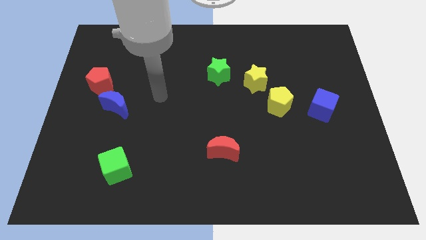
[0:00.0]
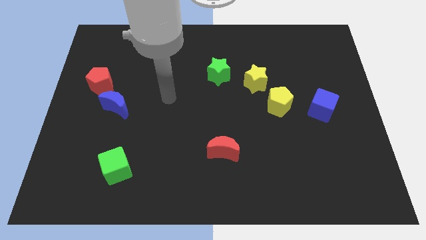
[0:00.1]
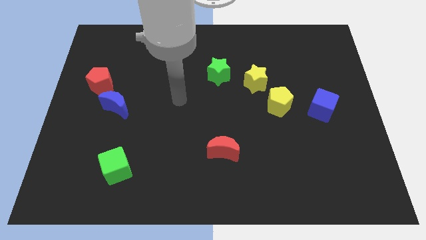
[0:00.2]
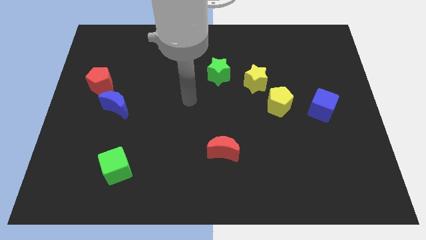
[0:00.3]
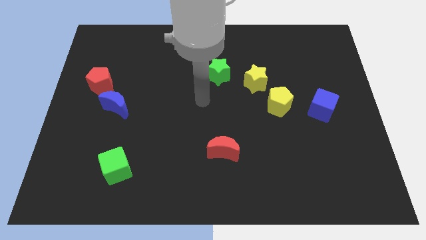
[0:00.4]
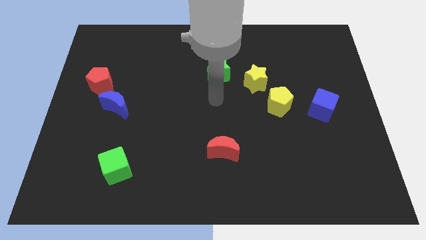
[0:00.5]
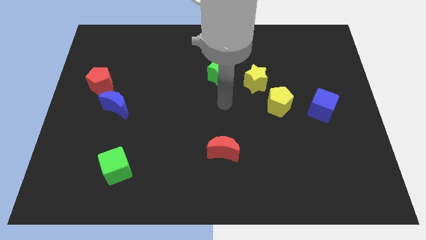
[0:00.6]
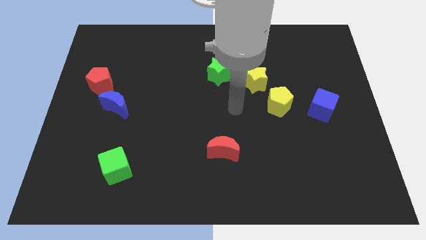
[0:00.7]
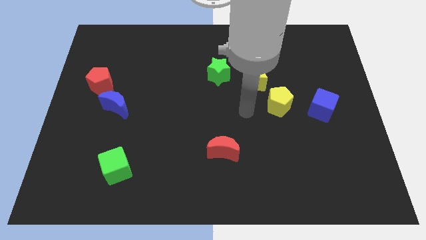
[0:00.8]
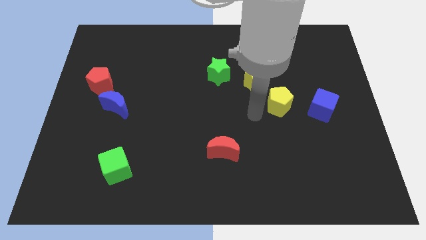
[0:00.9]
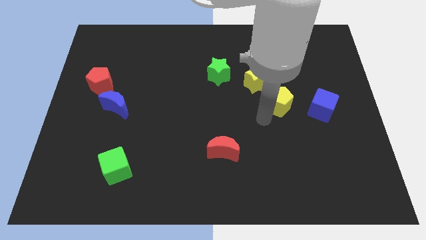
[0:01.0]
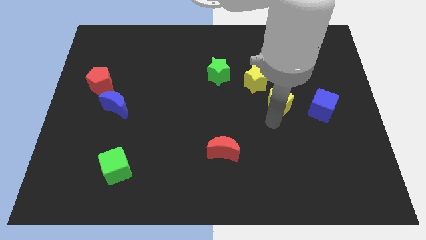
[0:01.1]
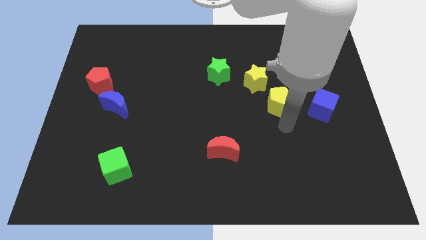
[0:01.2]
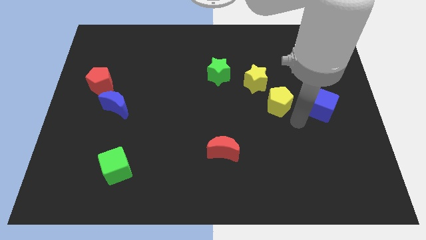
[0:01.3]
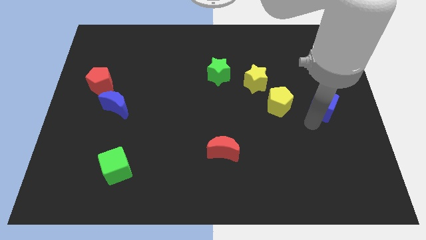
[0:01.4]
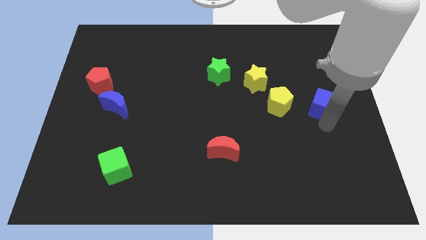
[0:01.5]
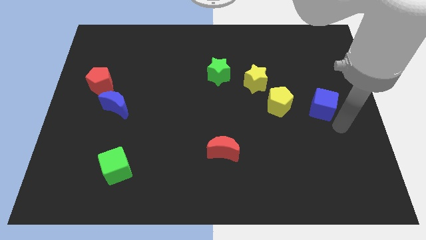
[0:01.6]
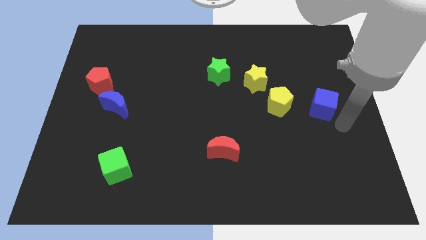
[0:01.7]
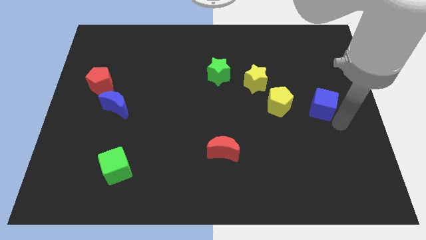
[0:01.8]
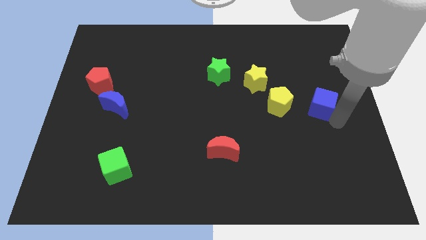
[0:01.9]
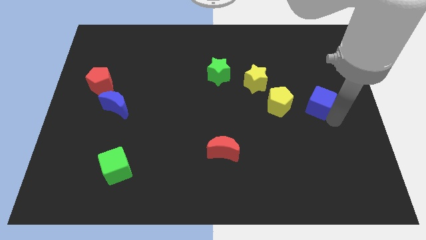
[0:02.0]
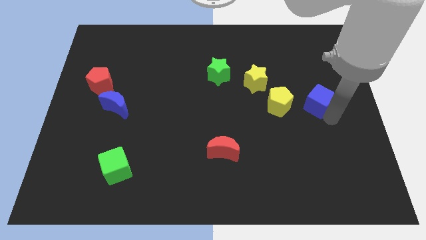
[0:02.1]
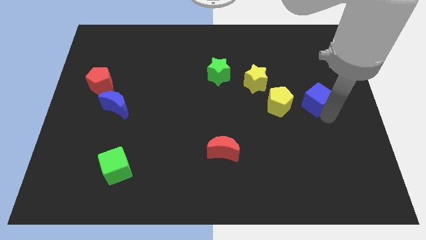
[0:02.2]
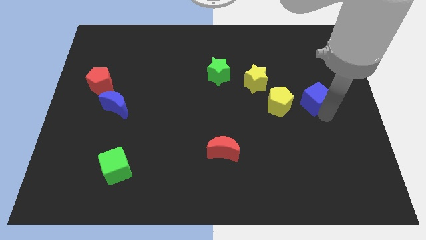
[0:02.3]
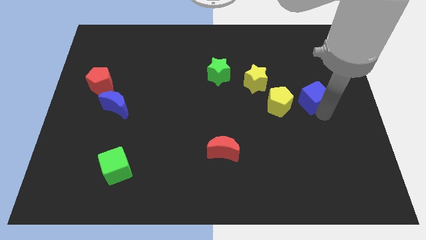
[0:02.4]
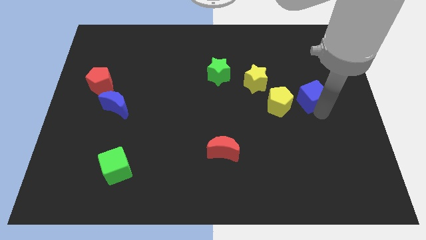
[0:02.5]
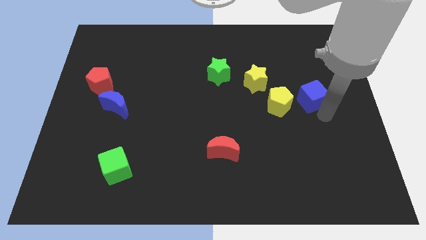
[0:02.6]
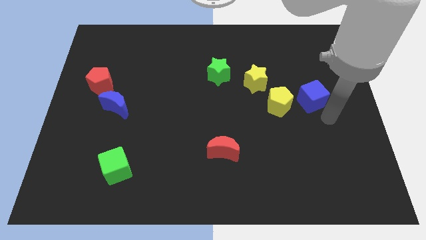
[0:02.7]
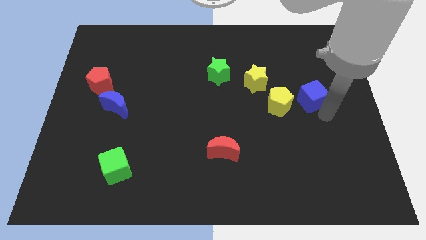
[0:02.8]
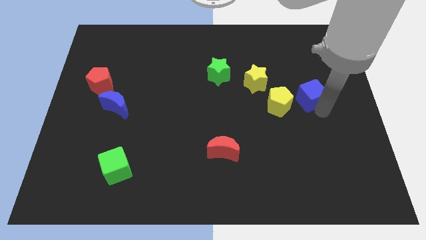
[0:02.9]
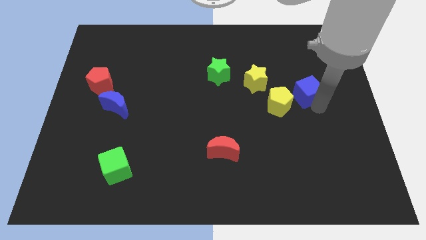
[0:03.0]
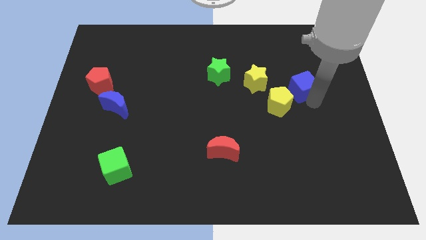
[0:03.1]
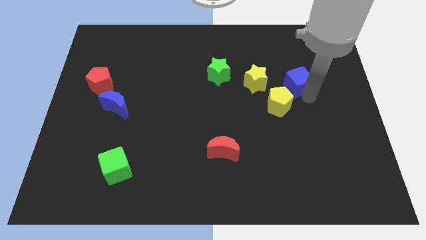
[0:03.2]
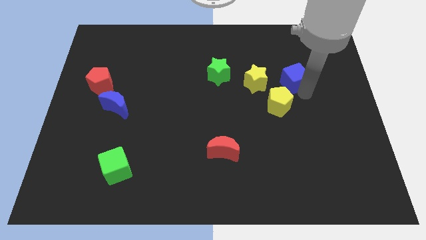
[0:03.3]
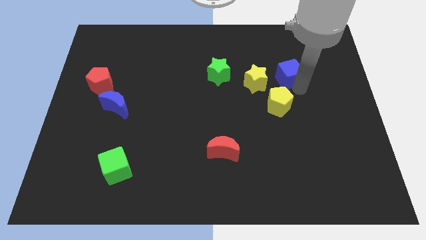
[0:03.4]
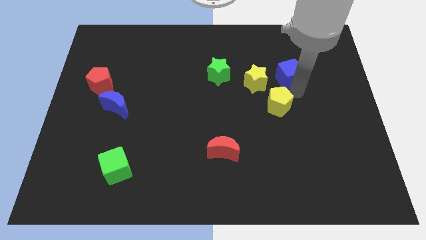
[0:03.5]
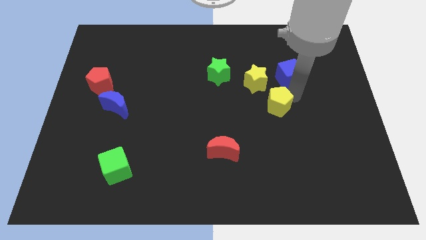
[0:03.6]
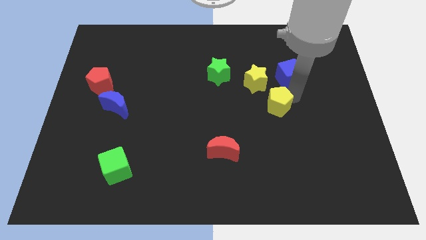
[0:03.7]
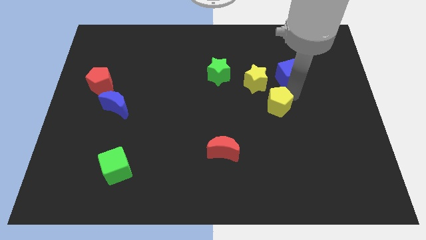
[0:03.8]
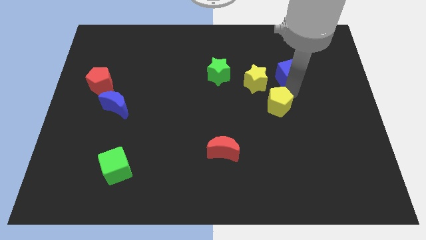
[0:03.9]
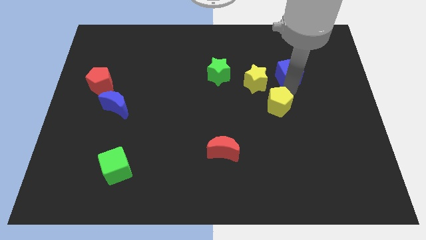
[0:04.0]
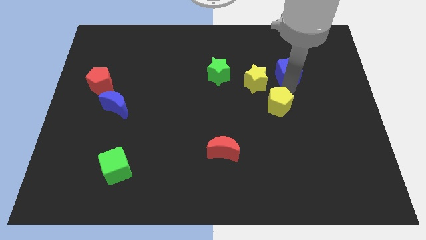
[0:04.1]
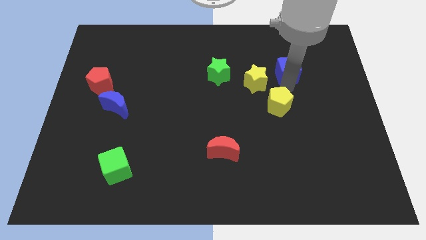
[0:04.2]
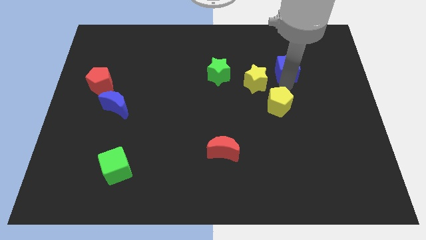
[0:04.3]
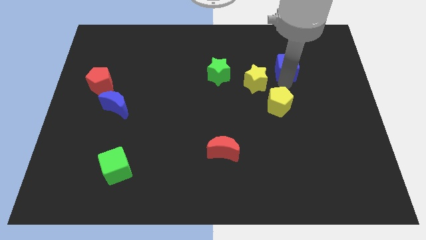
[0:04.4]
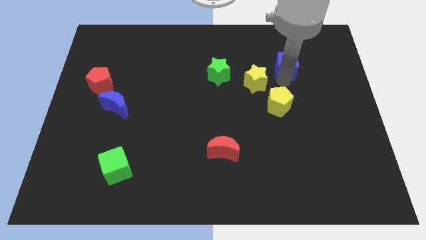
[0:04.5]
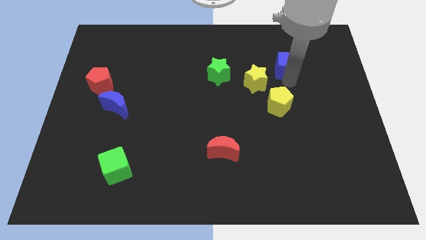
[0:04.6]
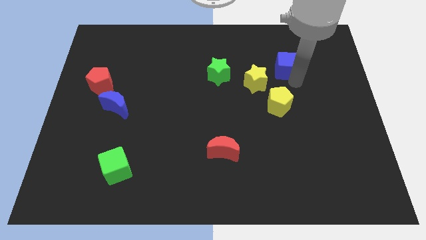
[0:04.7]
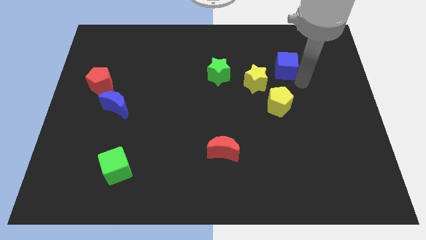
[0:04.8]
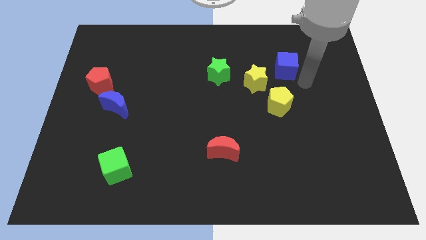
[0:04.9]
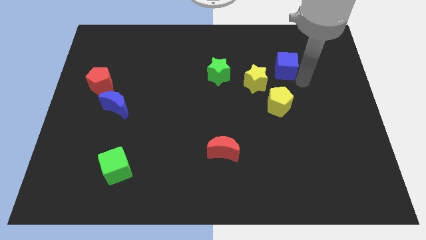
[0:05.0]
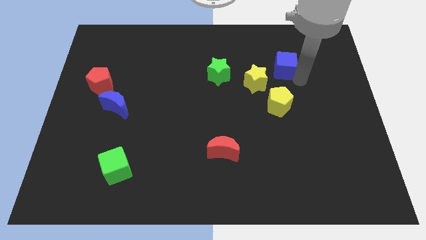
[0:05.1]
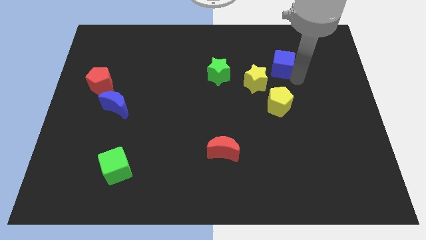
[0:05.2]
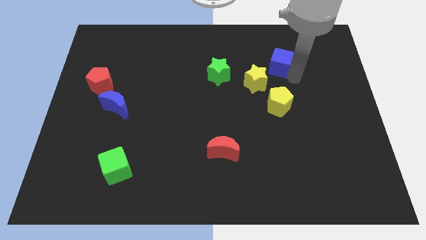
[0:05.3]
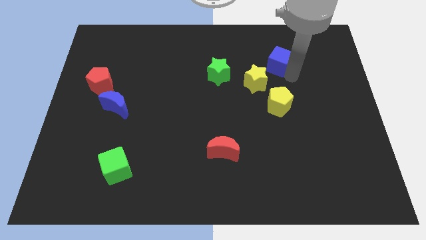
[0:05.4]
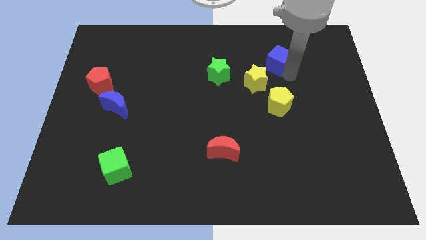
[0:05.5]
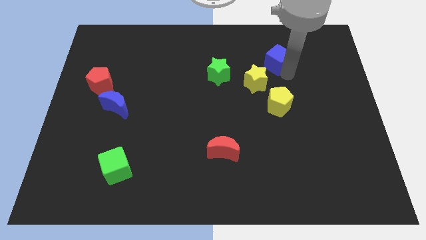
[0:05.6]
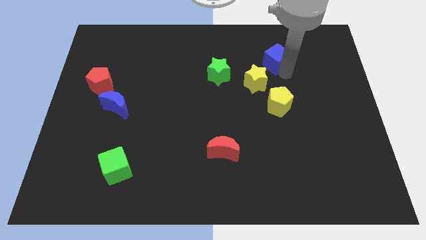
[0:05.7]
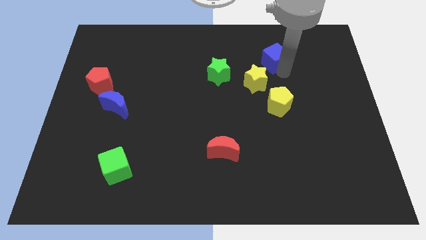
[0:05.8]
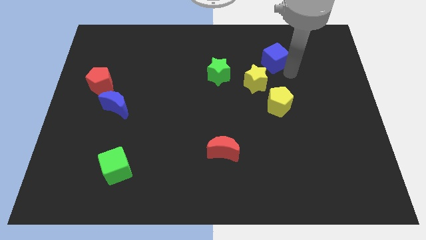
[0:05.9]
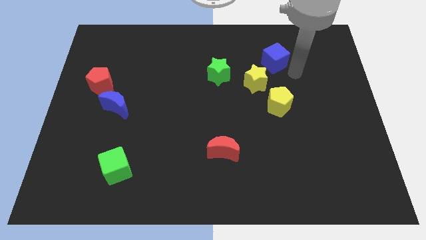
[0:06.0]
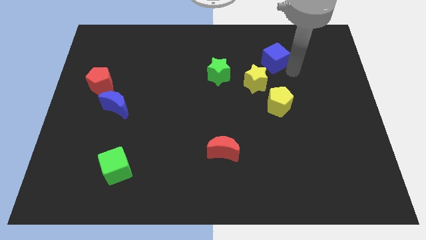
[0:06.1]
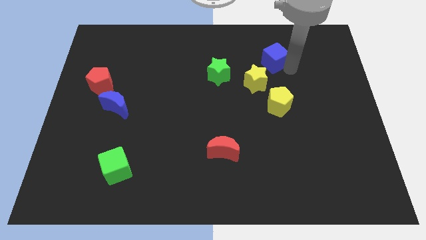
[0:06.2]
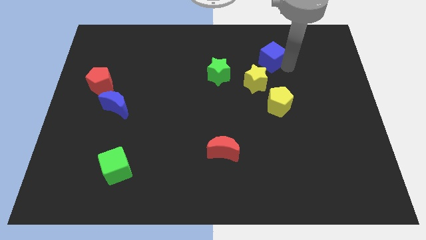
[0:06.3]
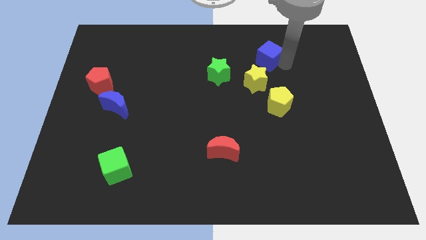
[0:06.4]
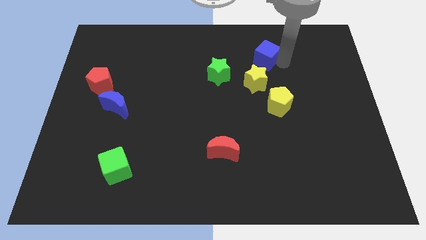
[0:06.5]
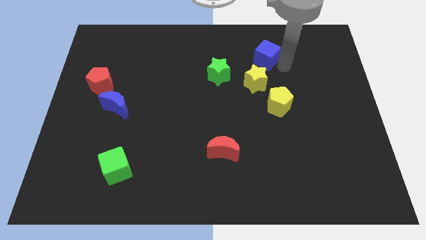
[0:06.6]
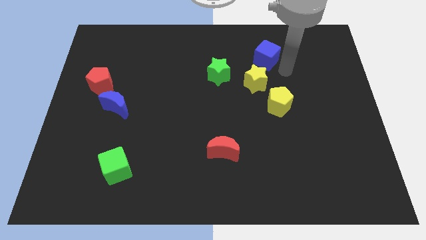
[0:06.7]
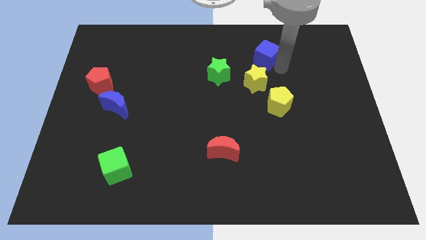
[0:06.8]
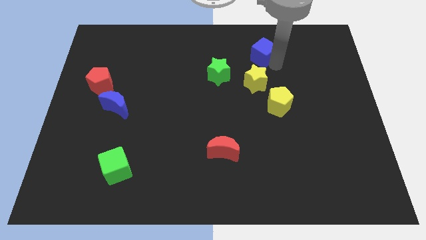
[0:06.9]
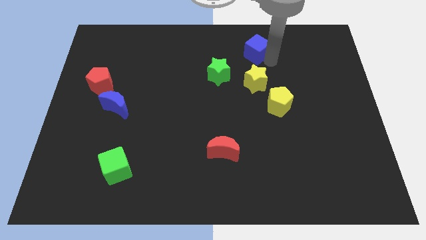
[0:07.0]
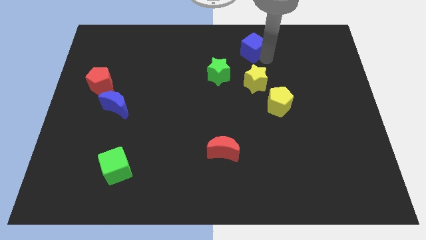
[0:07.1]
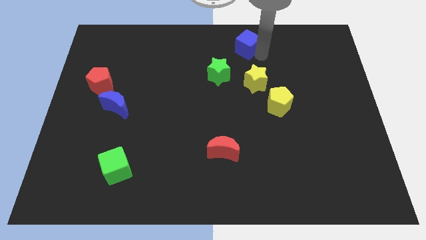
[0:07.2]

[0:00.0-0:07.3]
push the blue cube to the top side
